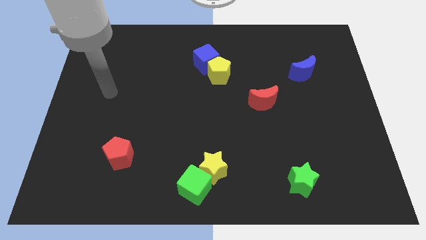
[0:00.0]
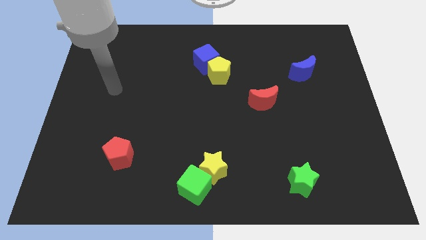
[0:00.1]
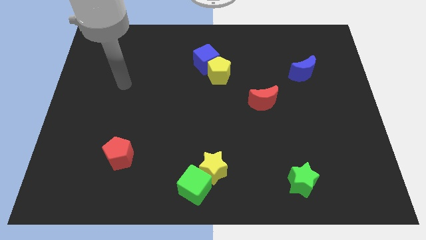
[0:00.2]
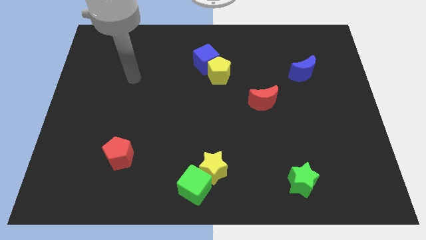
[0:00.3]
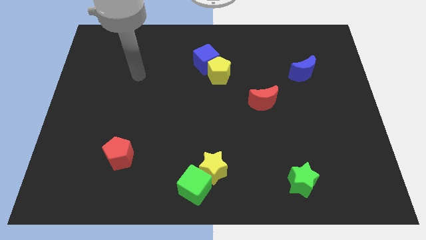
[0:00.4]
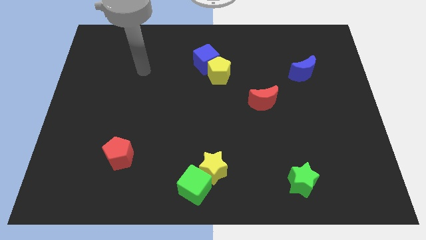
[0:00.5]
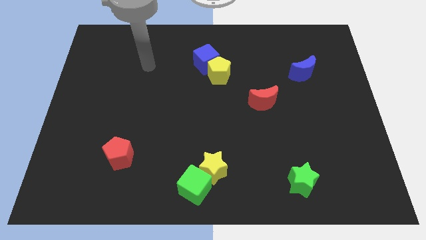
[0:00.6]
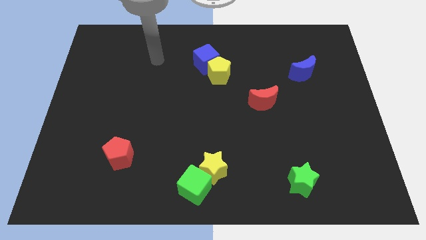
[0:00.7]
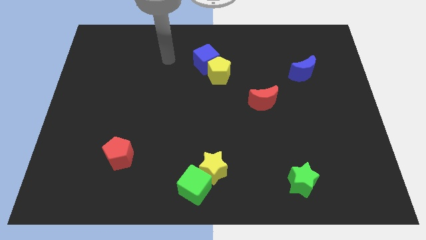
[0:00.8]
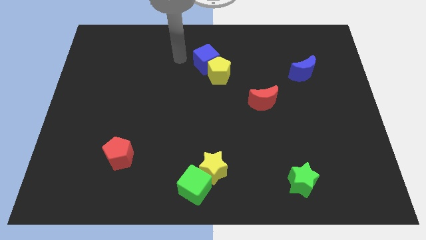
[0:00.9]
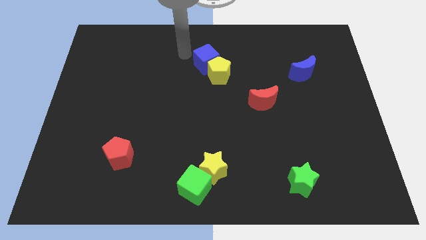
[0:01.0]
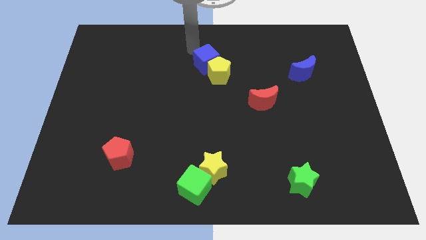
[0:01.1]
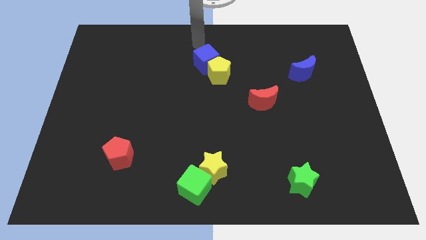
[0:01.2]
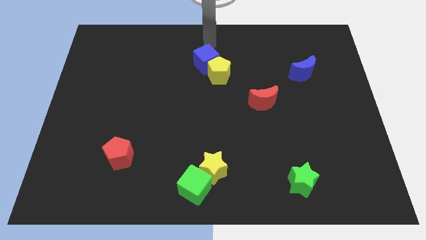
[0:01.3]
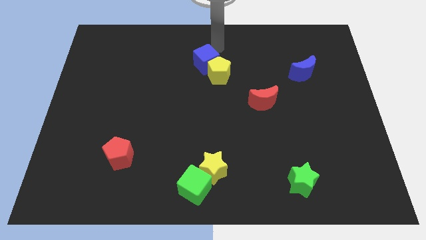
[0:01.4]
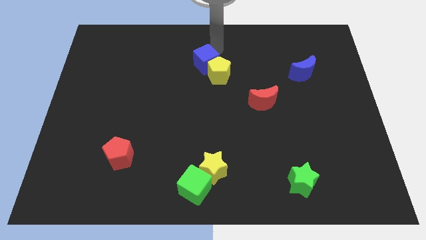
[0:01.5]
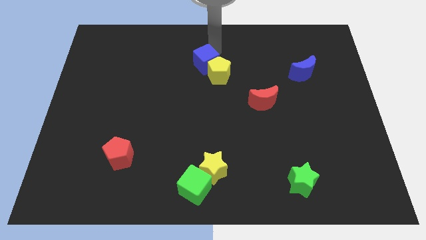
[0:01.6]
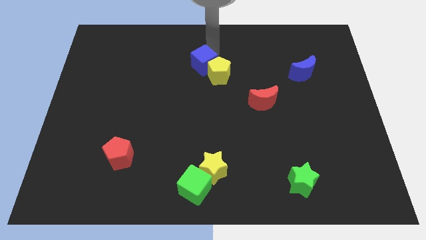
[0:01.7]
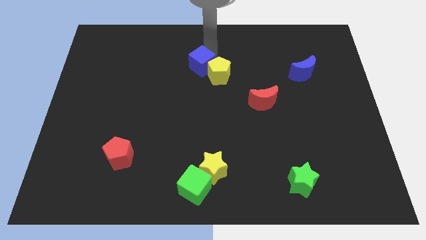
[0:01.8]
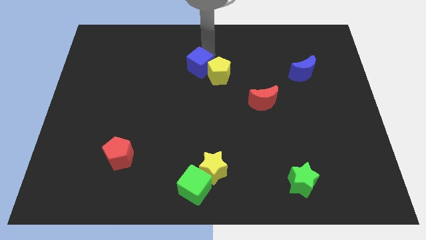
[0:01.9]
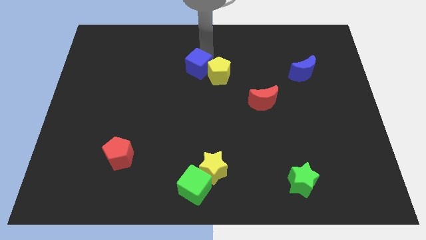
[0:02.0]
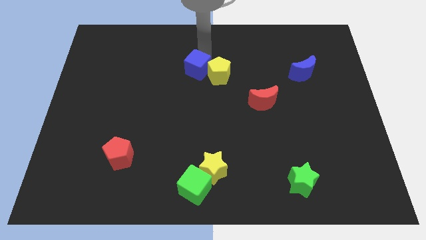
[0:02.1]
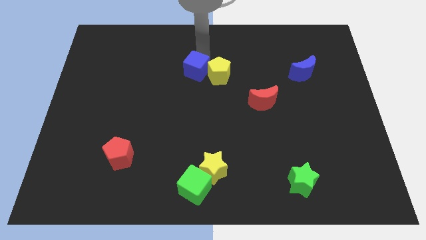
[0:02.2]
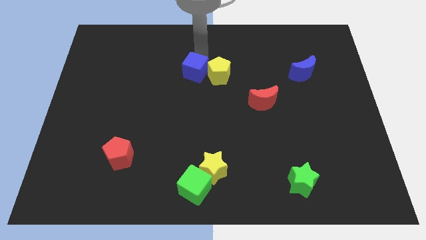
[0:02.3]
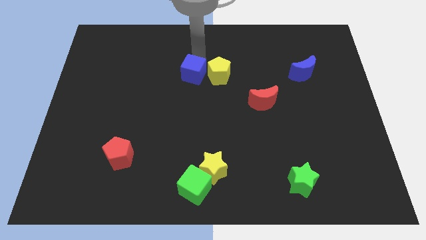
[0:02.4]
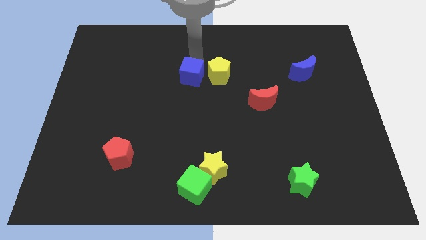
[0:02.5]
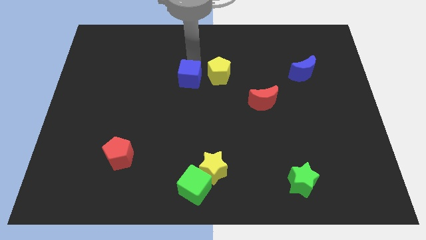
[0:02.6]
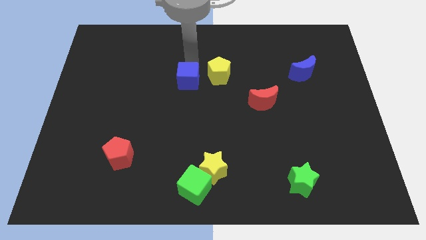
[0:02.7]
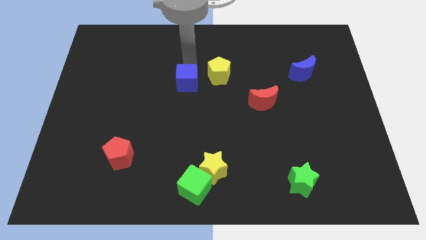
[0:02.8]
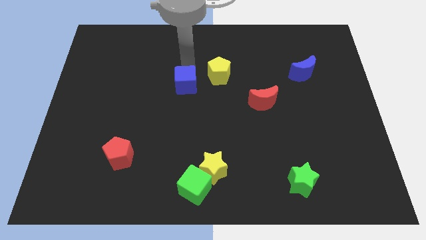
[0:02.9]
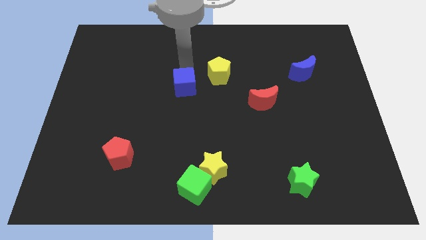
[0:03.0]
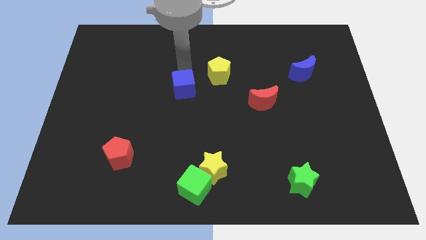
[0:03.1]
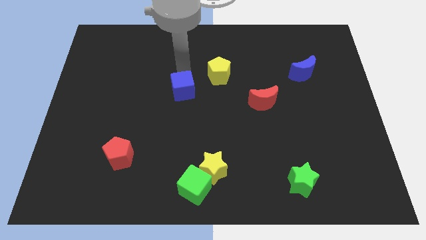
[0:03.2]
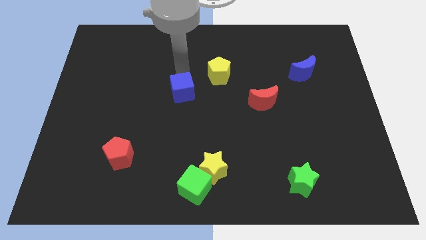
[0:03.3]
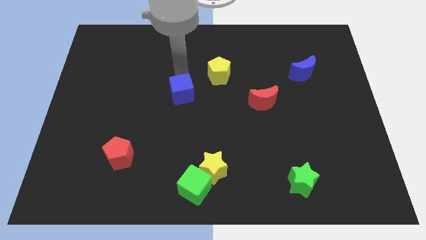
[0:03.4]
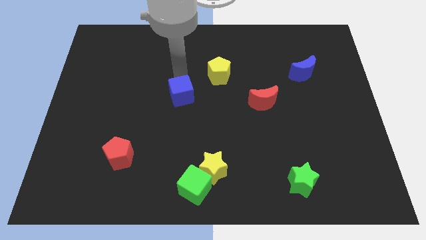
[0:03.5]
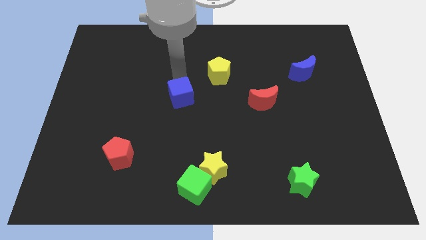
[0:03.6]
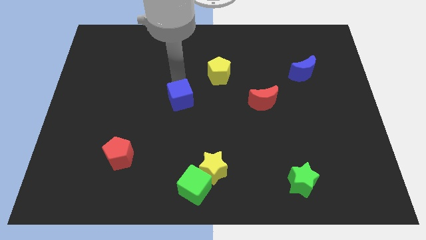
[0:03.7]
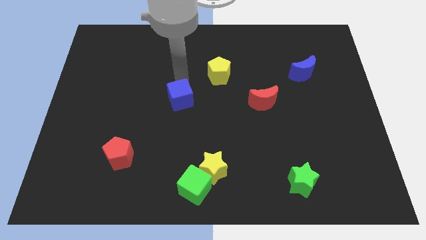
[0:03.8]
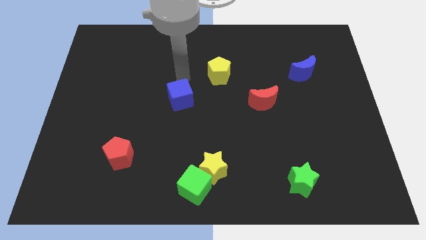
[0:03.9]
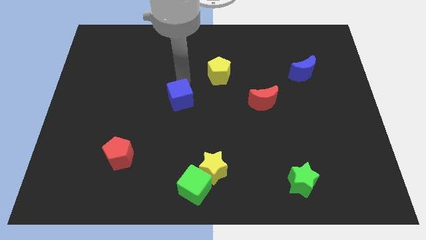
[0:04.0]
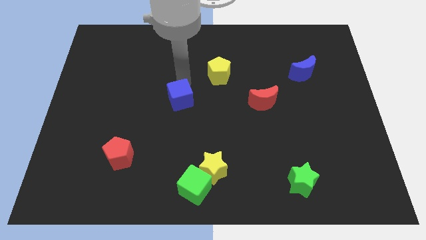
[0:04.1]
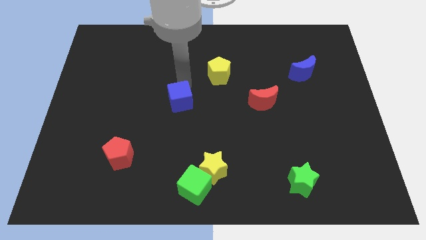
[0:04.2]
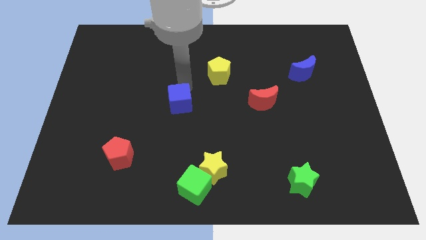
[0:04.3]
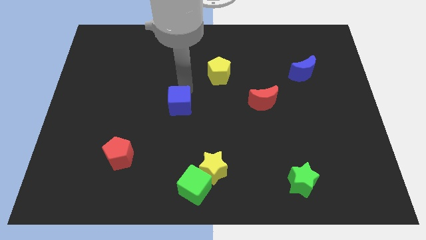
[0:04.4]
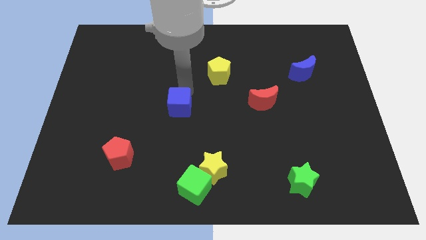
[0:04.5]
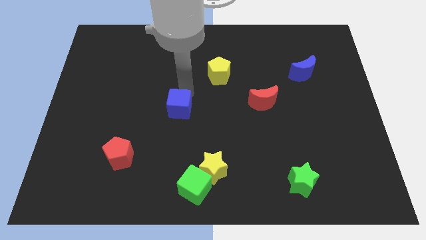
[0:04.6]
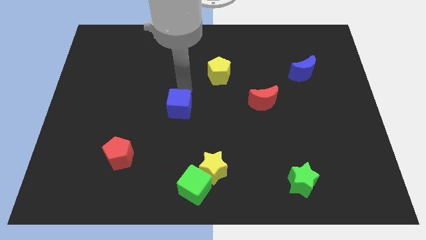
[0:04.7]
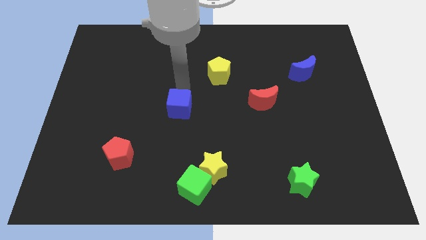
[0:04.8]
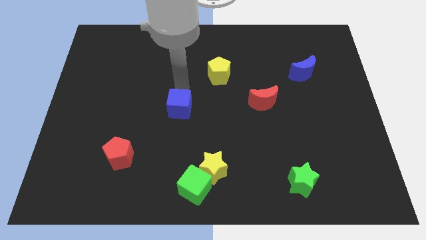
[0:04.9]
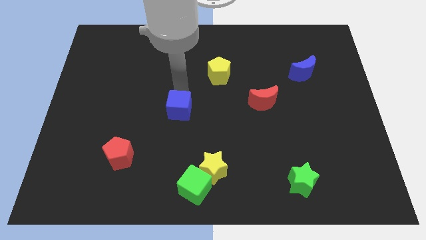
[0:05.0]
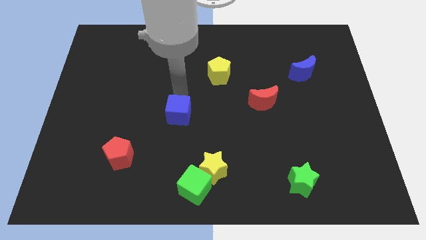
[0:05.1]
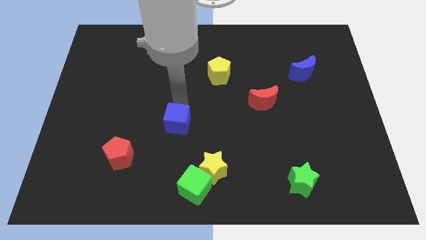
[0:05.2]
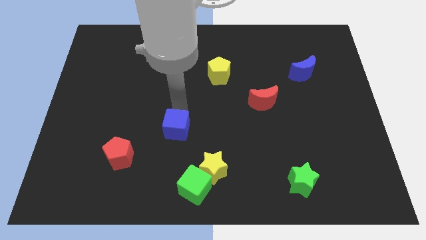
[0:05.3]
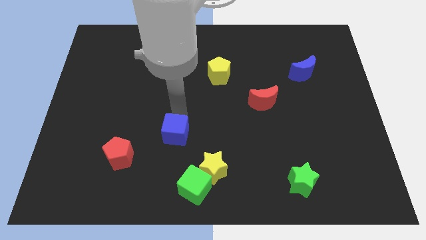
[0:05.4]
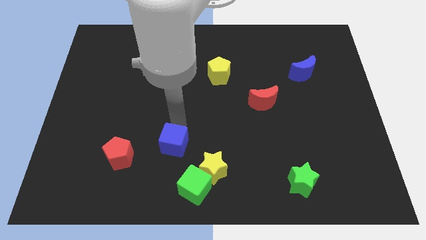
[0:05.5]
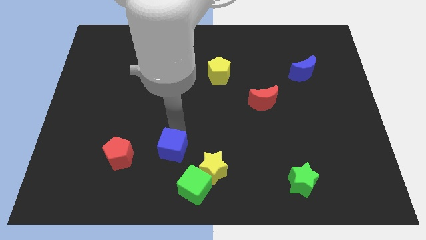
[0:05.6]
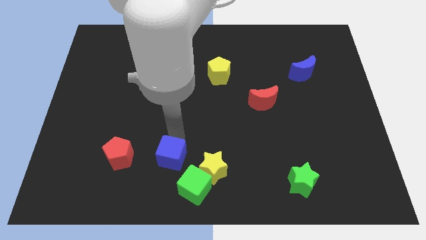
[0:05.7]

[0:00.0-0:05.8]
move the blue cube just left of the yellow star

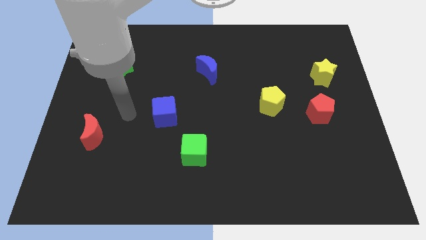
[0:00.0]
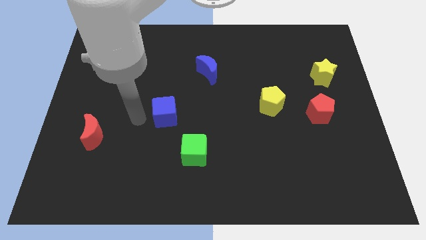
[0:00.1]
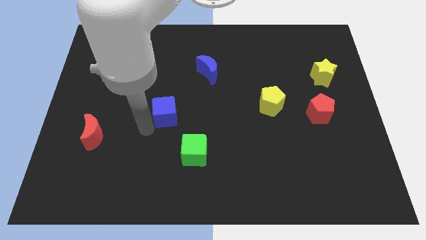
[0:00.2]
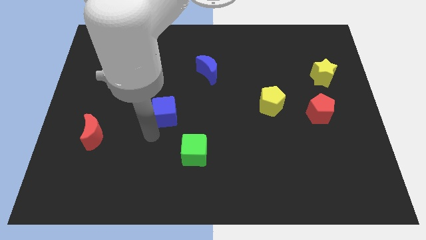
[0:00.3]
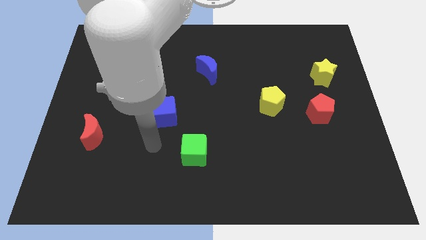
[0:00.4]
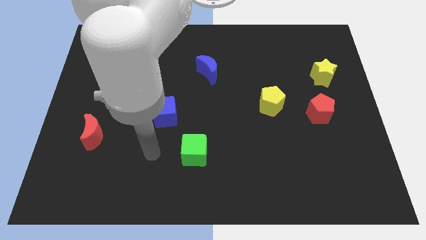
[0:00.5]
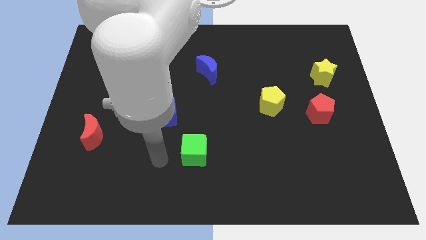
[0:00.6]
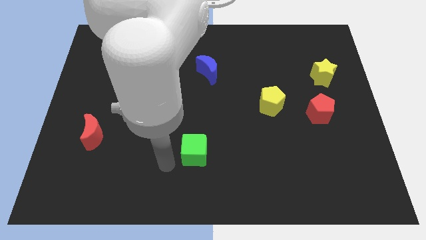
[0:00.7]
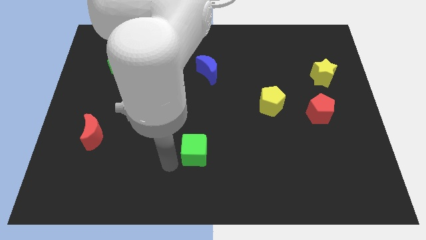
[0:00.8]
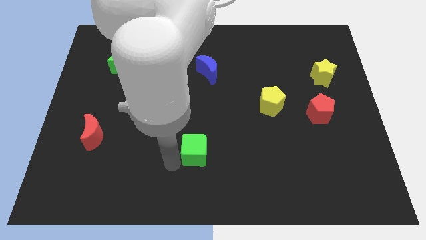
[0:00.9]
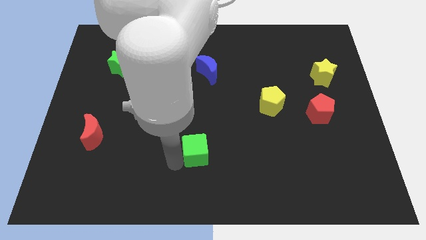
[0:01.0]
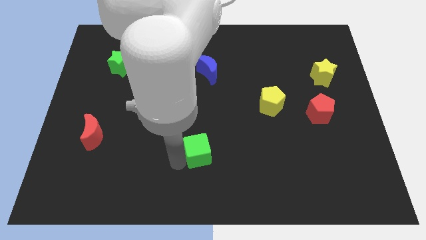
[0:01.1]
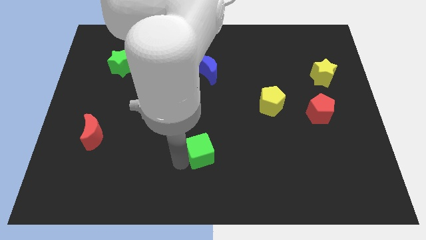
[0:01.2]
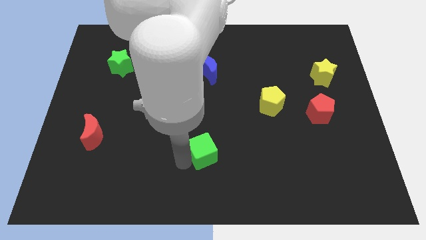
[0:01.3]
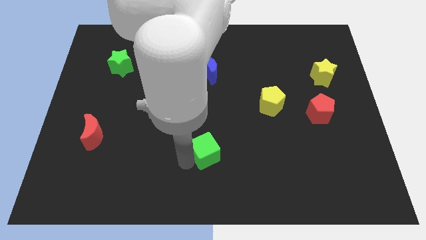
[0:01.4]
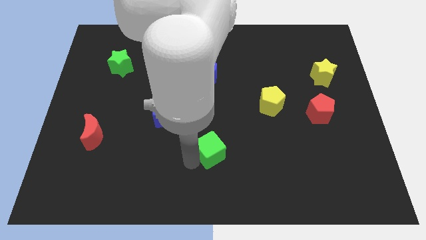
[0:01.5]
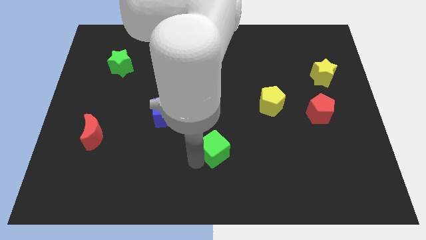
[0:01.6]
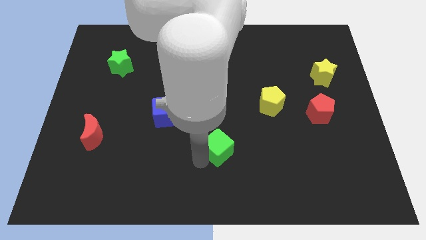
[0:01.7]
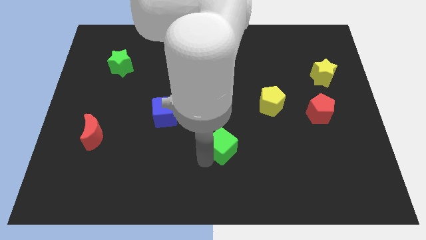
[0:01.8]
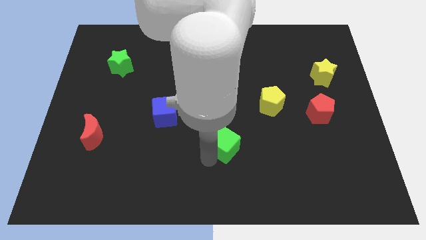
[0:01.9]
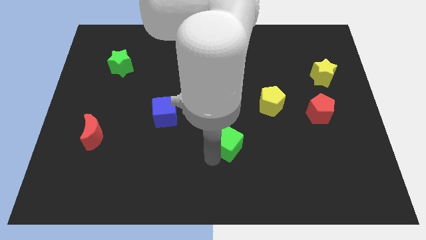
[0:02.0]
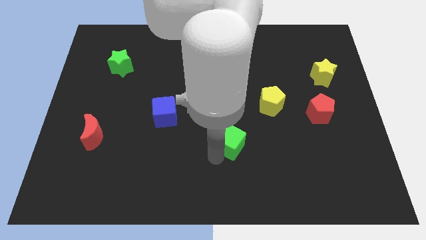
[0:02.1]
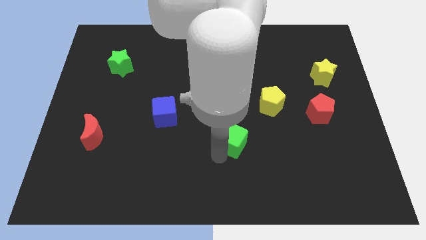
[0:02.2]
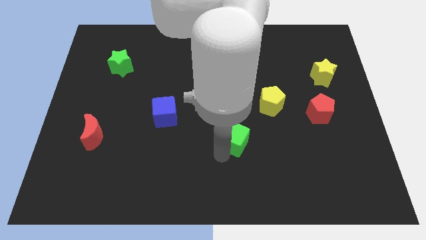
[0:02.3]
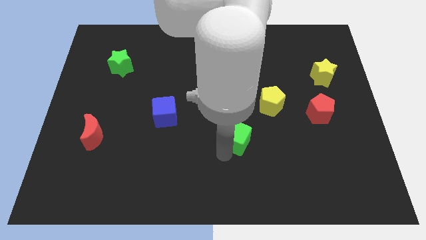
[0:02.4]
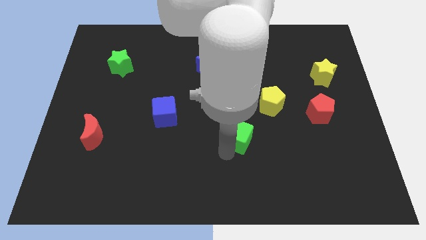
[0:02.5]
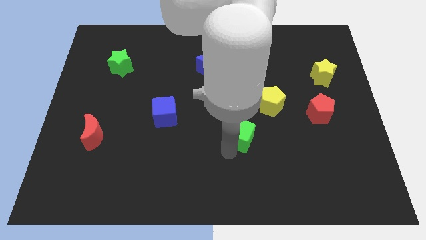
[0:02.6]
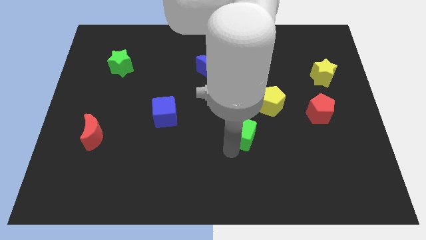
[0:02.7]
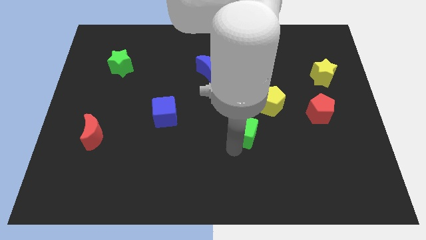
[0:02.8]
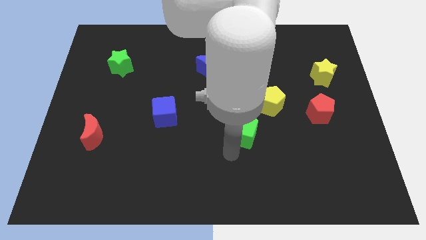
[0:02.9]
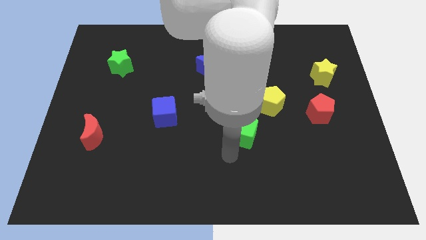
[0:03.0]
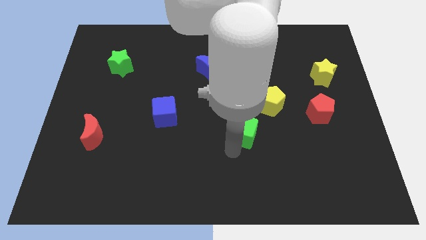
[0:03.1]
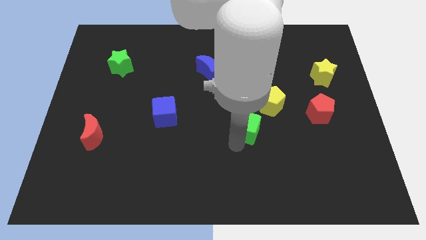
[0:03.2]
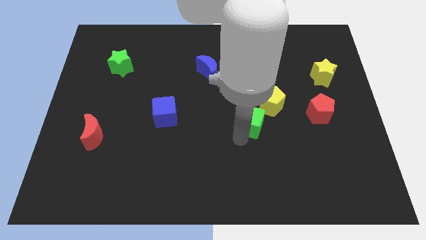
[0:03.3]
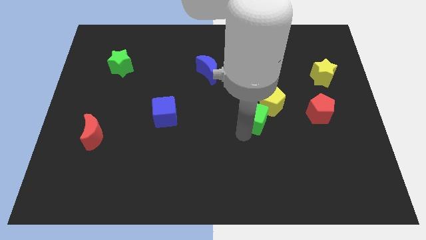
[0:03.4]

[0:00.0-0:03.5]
move the green cube just left of the red pentagon
